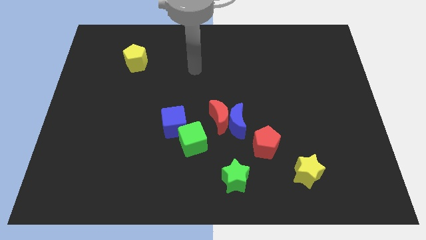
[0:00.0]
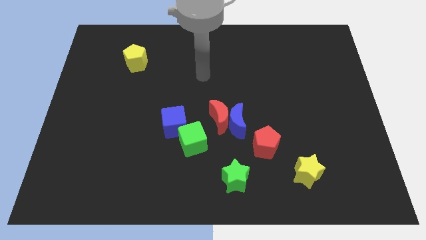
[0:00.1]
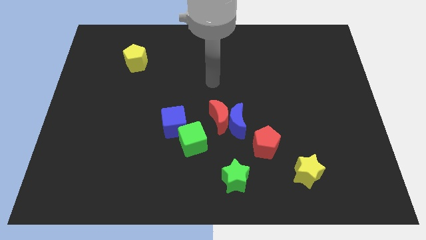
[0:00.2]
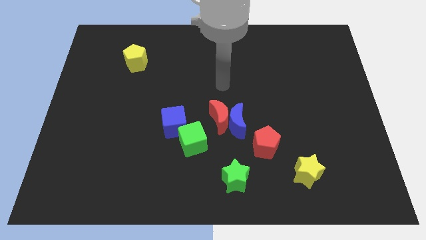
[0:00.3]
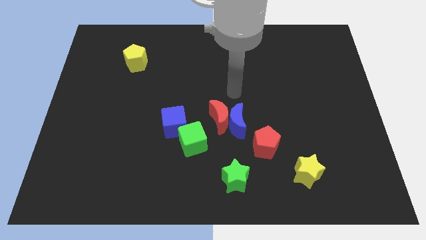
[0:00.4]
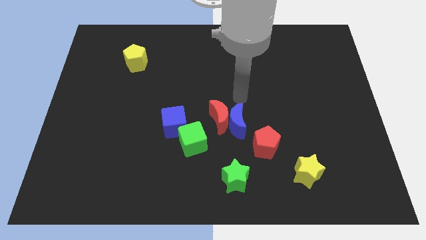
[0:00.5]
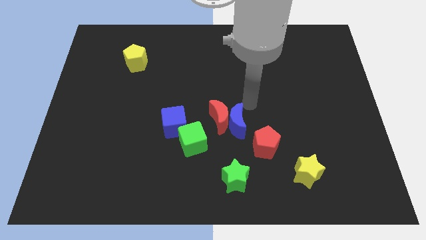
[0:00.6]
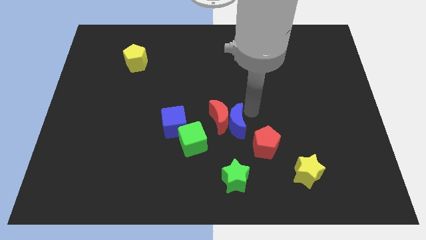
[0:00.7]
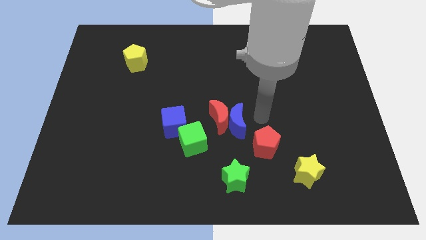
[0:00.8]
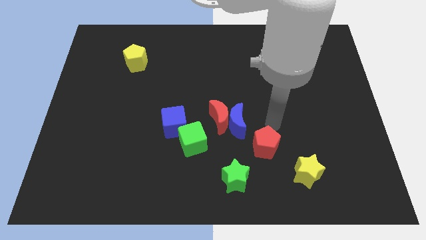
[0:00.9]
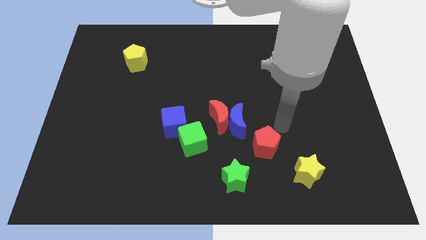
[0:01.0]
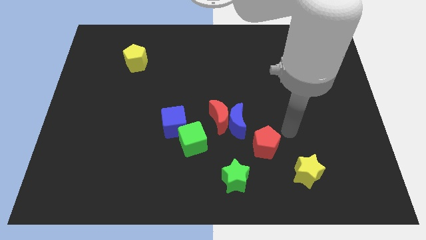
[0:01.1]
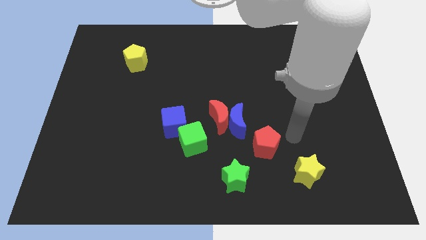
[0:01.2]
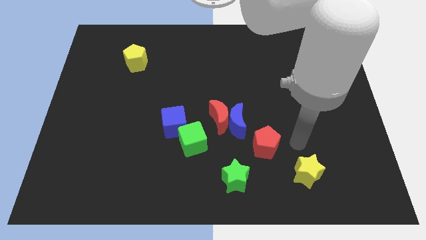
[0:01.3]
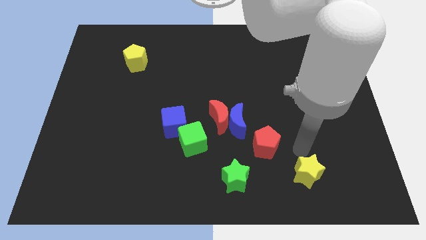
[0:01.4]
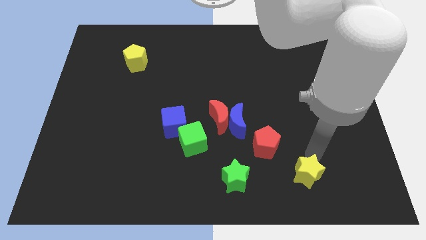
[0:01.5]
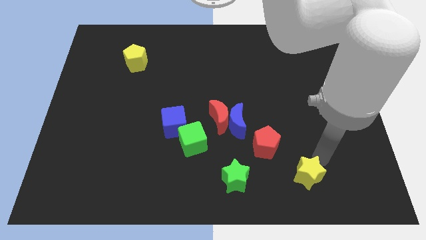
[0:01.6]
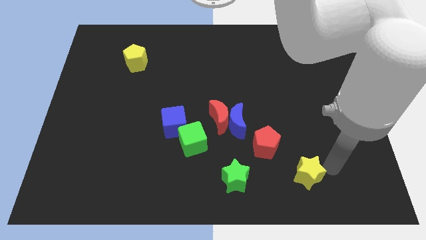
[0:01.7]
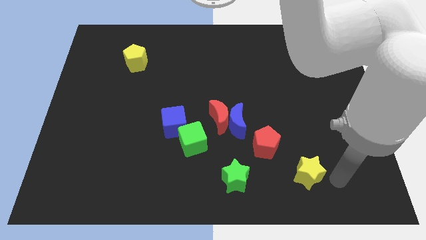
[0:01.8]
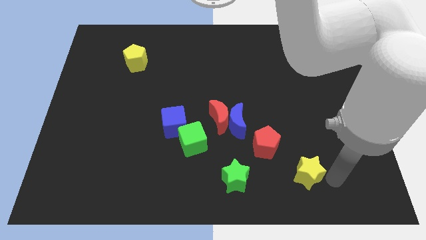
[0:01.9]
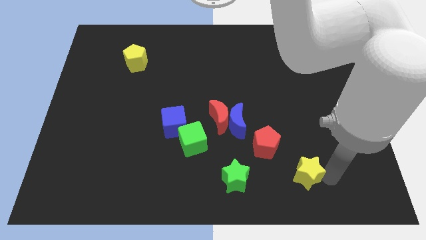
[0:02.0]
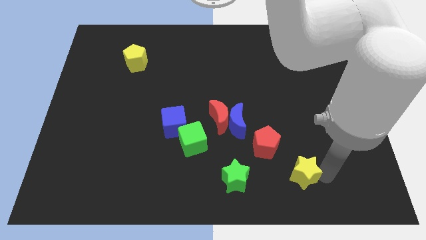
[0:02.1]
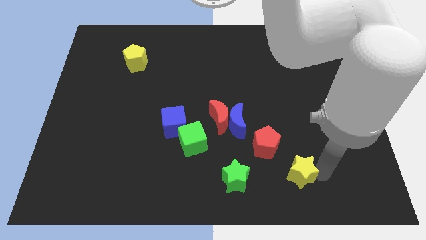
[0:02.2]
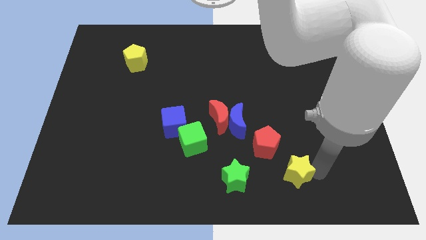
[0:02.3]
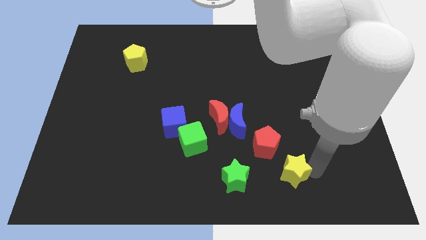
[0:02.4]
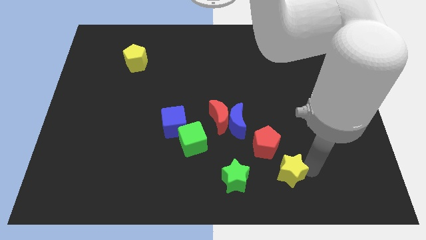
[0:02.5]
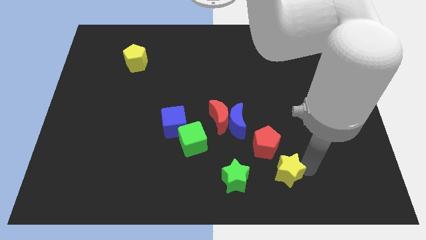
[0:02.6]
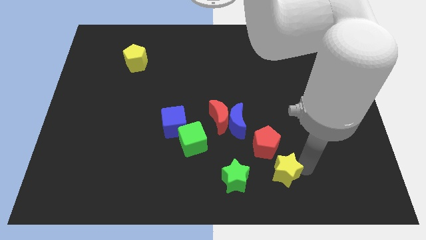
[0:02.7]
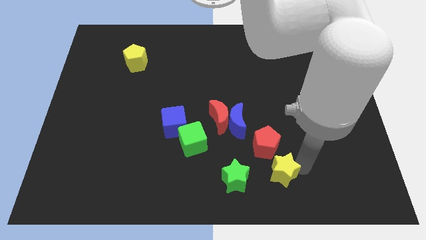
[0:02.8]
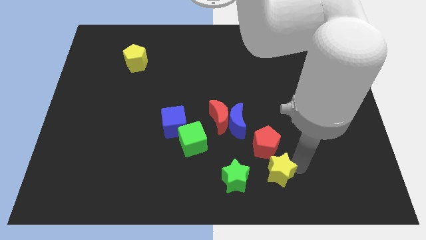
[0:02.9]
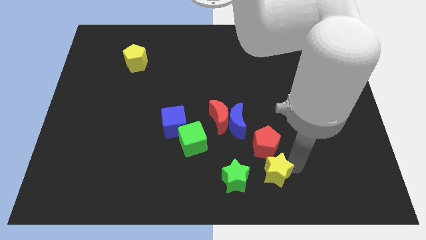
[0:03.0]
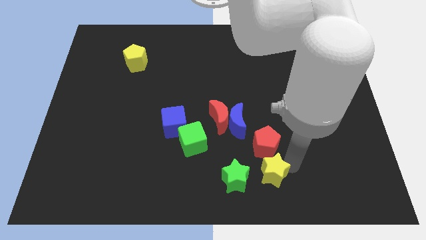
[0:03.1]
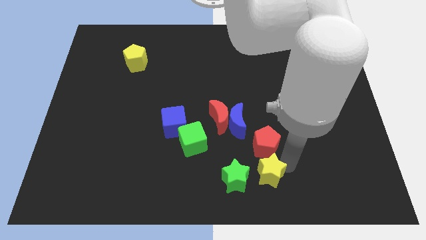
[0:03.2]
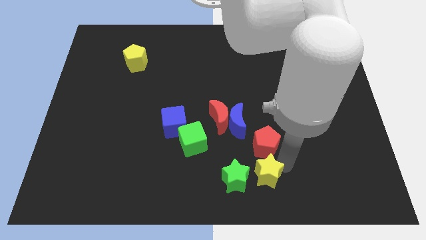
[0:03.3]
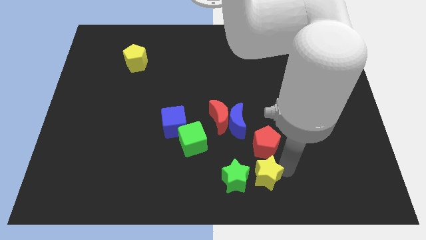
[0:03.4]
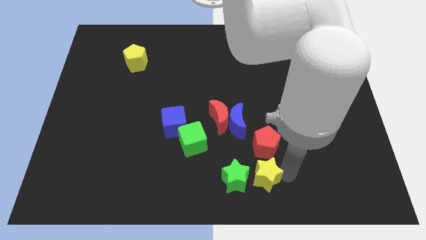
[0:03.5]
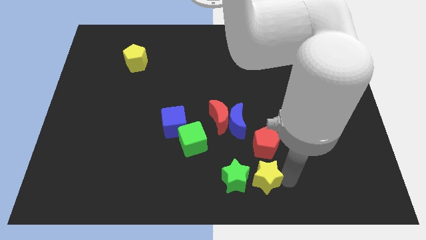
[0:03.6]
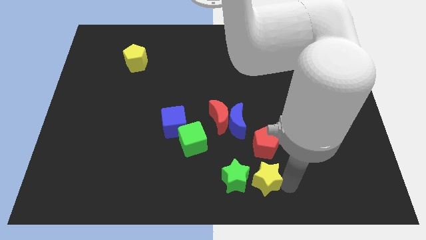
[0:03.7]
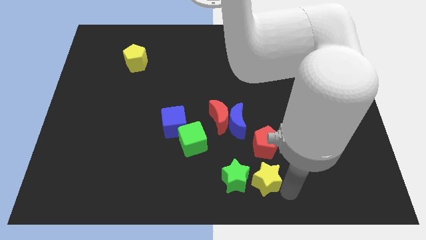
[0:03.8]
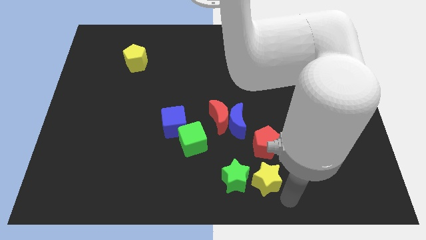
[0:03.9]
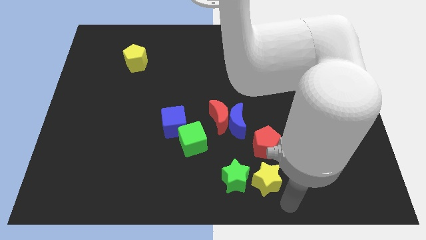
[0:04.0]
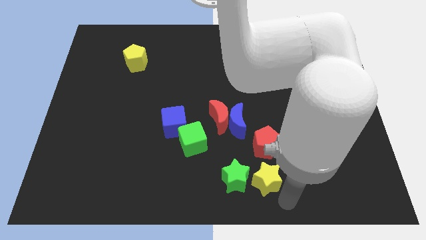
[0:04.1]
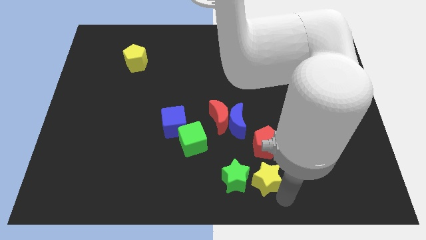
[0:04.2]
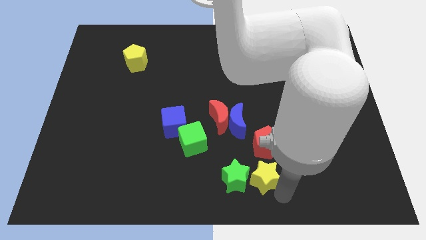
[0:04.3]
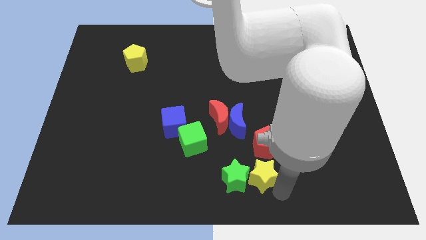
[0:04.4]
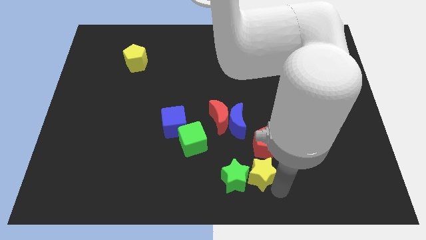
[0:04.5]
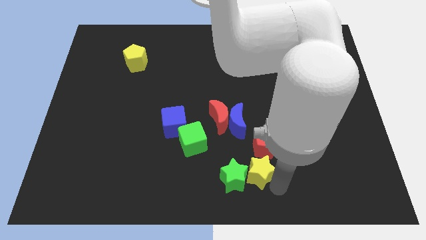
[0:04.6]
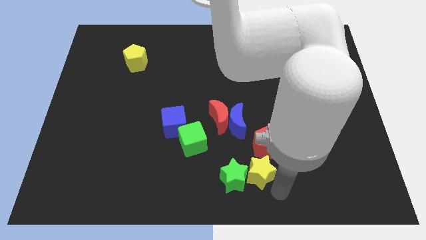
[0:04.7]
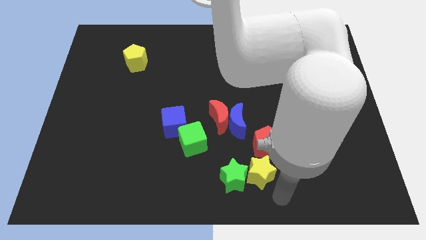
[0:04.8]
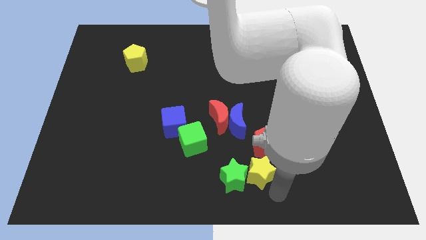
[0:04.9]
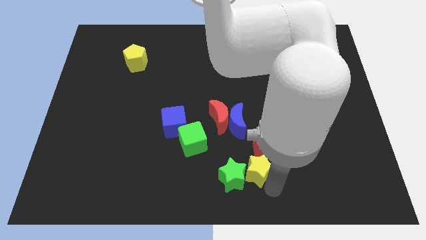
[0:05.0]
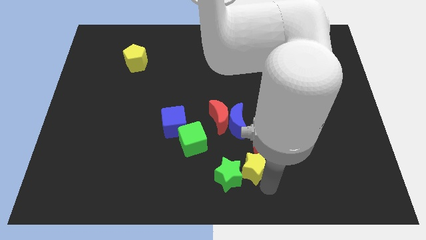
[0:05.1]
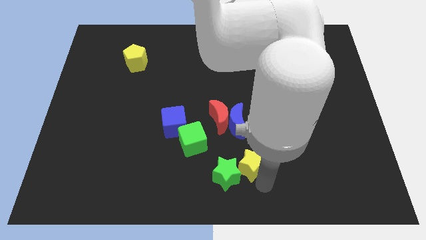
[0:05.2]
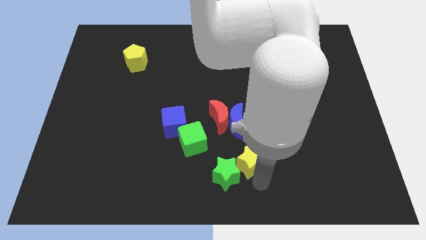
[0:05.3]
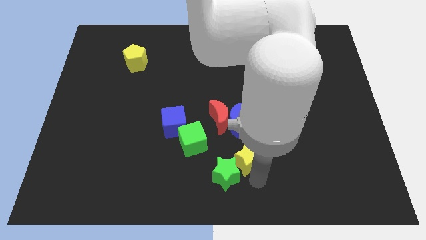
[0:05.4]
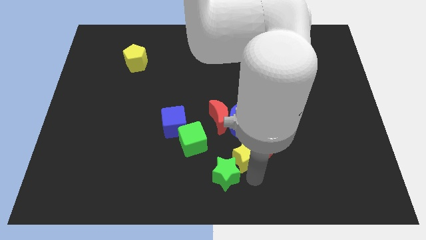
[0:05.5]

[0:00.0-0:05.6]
push the yellow star to the bottom right of the red moon

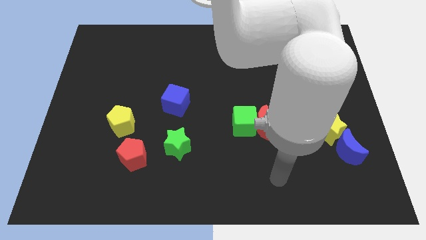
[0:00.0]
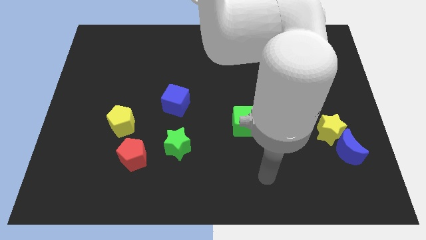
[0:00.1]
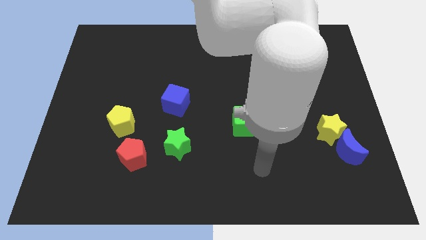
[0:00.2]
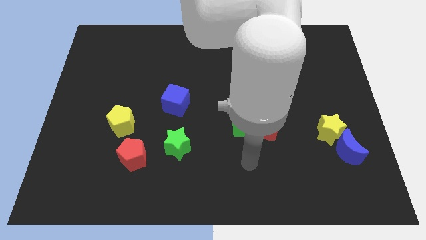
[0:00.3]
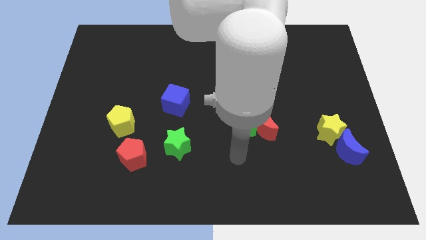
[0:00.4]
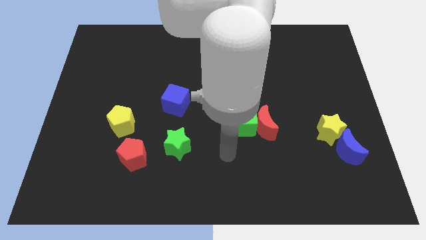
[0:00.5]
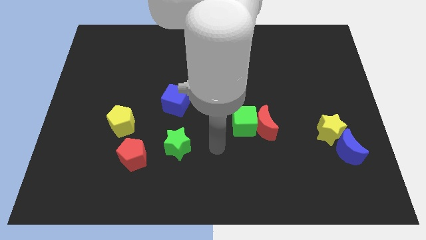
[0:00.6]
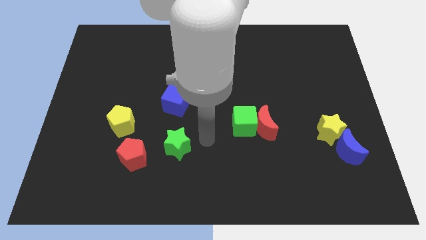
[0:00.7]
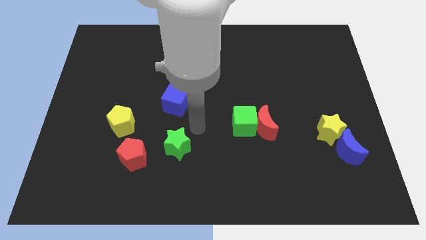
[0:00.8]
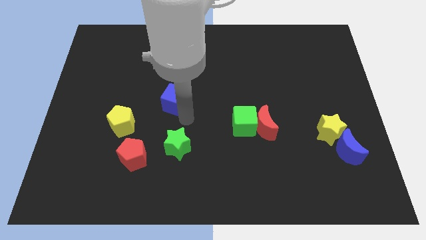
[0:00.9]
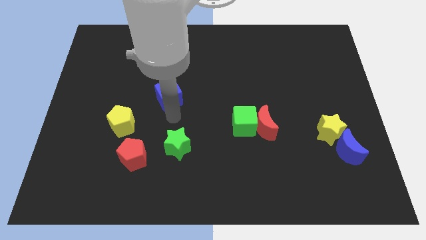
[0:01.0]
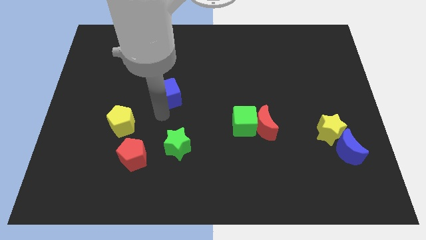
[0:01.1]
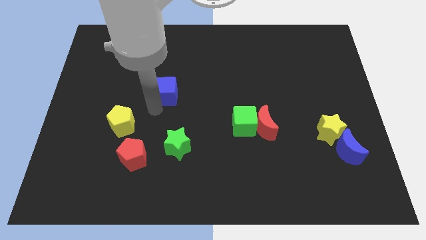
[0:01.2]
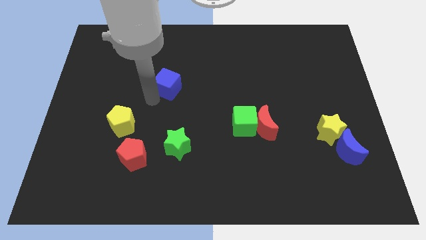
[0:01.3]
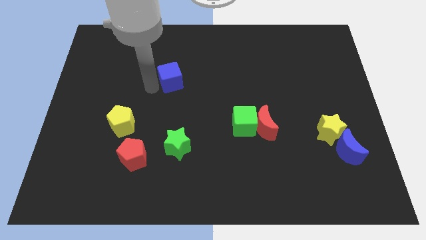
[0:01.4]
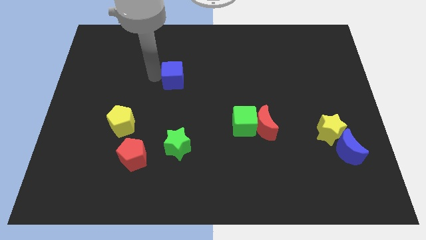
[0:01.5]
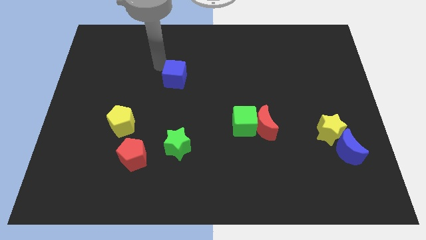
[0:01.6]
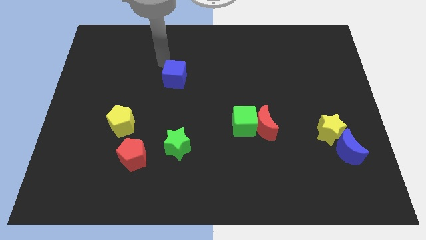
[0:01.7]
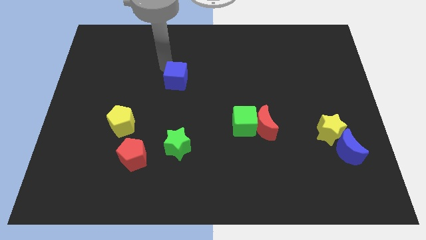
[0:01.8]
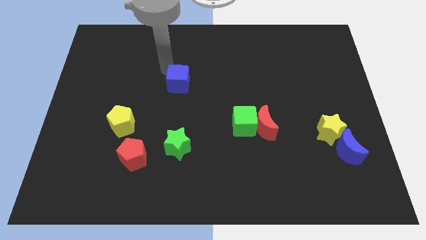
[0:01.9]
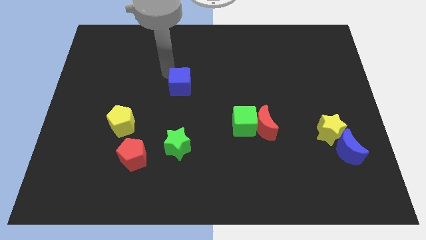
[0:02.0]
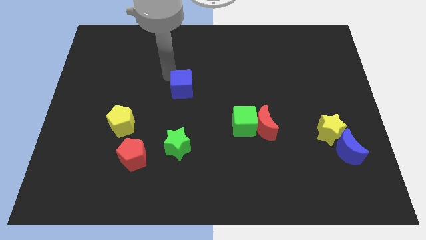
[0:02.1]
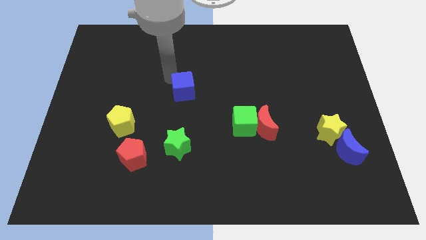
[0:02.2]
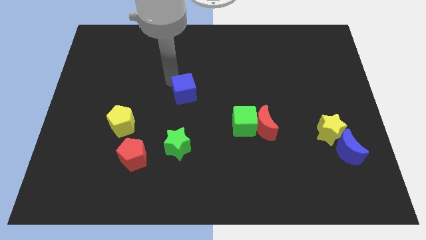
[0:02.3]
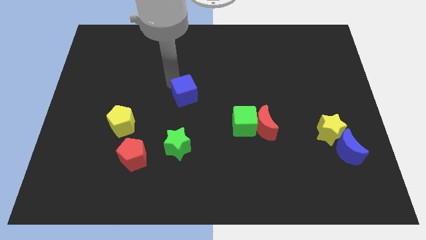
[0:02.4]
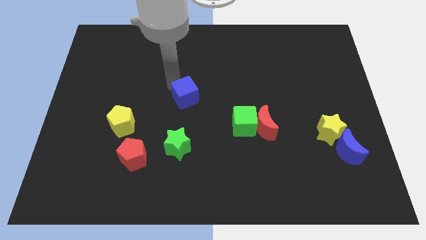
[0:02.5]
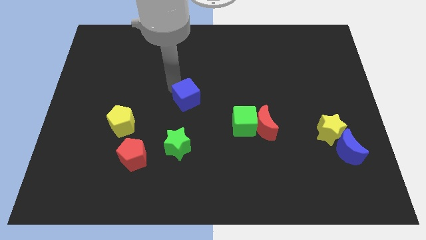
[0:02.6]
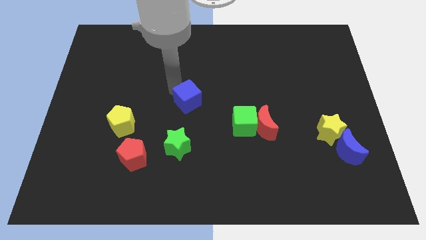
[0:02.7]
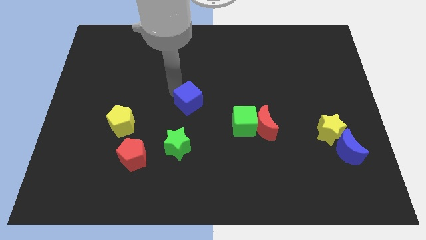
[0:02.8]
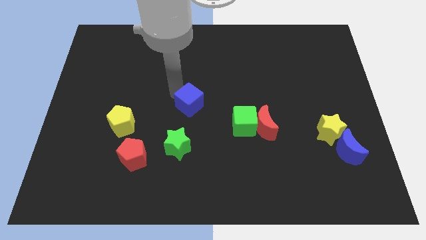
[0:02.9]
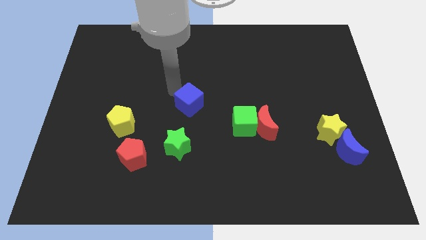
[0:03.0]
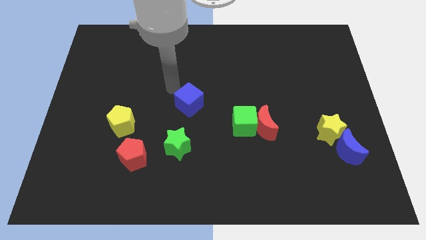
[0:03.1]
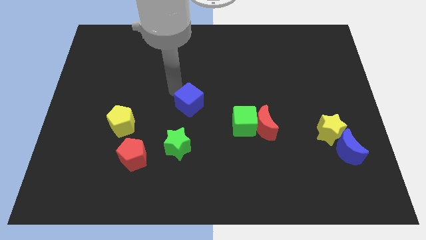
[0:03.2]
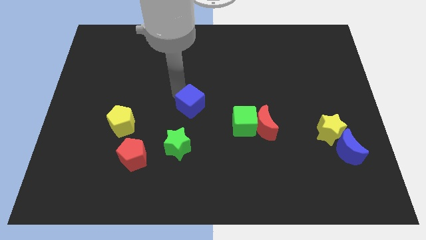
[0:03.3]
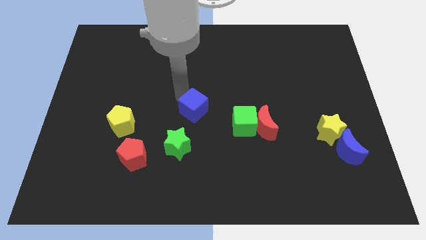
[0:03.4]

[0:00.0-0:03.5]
move the blue cube to the left of the green cube
